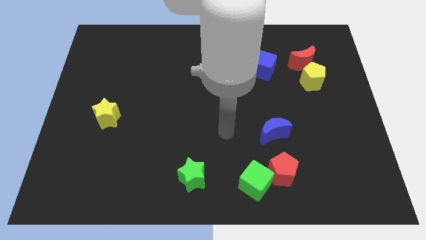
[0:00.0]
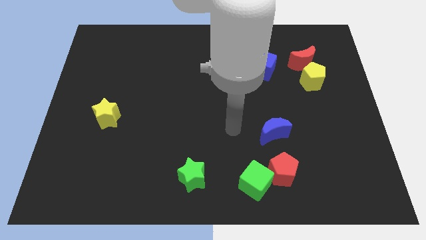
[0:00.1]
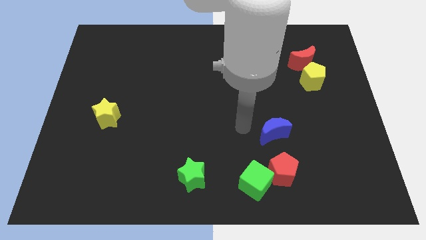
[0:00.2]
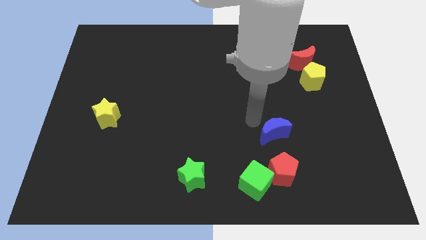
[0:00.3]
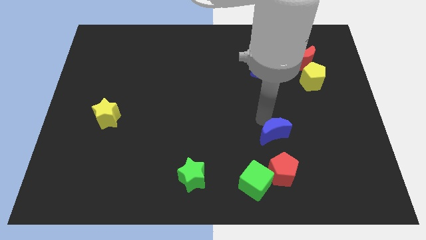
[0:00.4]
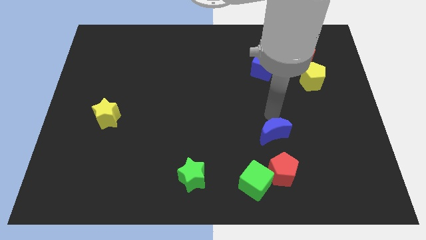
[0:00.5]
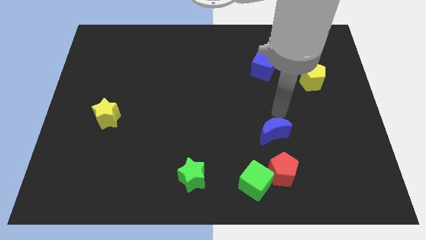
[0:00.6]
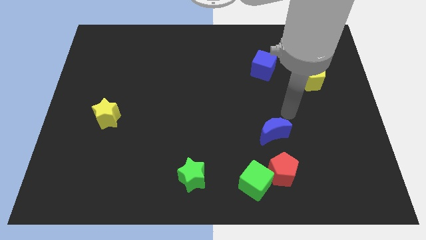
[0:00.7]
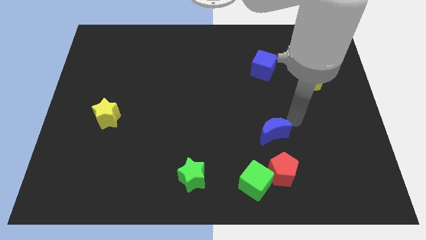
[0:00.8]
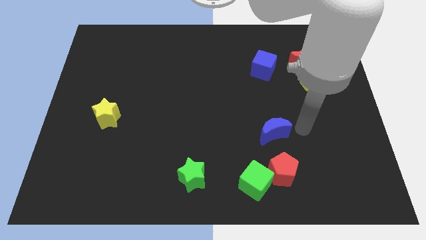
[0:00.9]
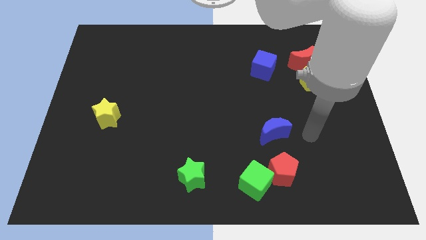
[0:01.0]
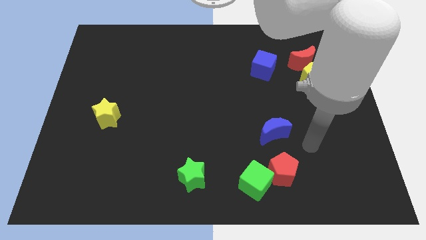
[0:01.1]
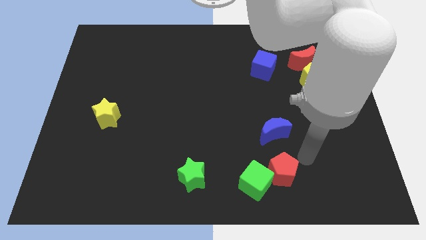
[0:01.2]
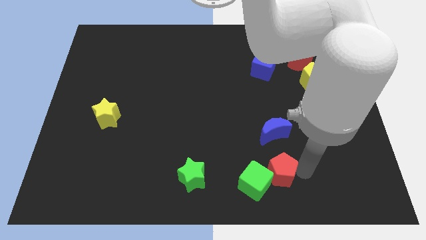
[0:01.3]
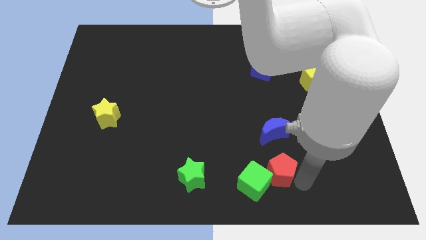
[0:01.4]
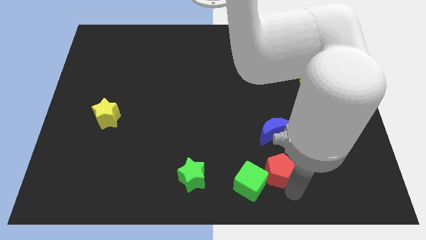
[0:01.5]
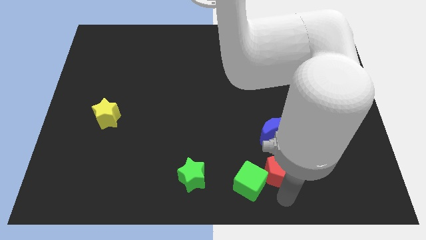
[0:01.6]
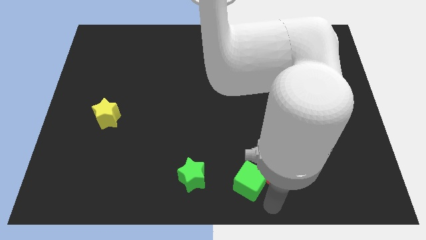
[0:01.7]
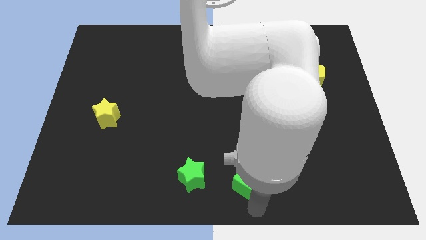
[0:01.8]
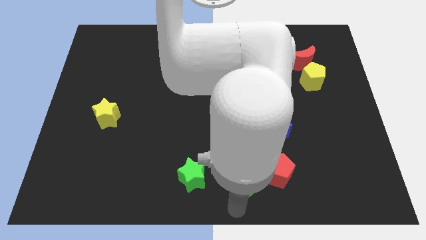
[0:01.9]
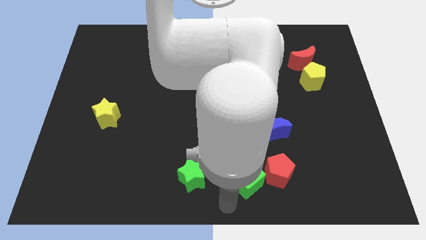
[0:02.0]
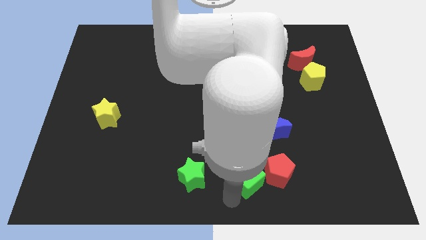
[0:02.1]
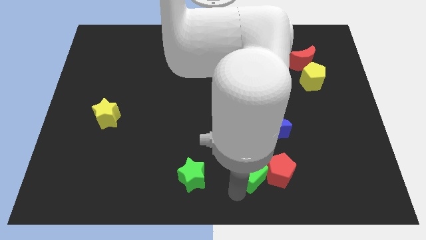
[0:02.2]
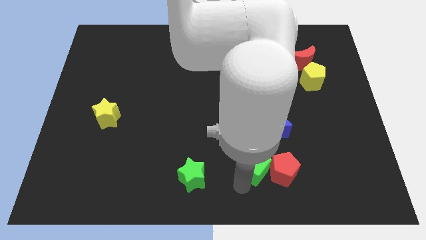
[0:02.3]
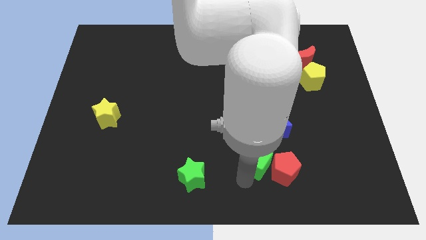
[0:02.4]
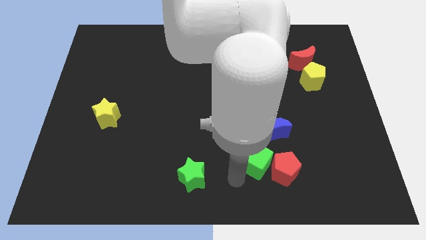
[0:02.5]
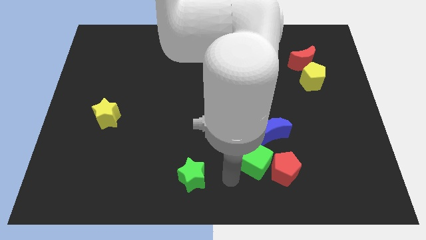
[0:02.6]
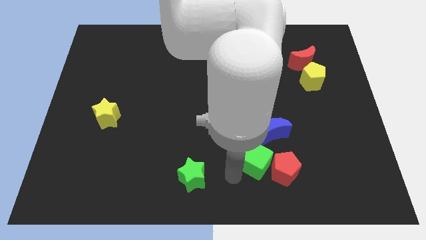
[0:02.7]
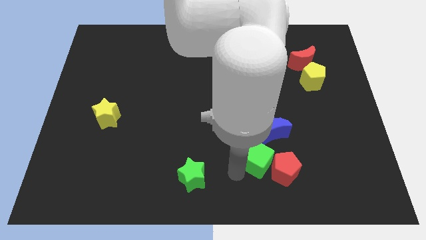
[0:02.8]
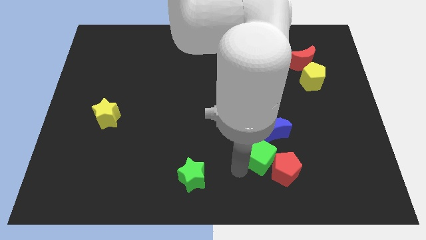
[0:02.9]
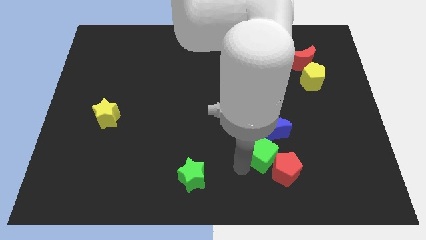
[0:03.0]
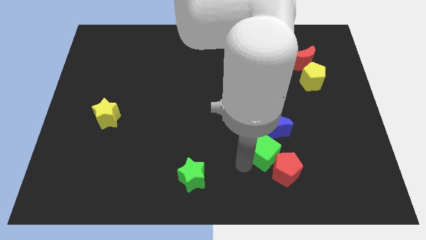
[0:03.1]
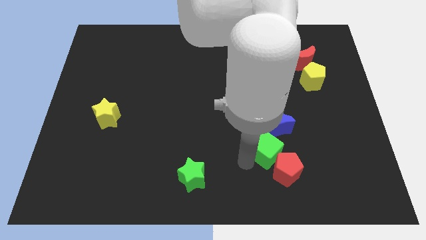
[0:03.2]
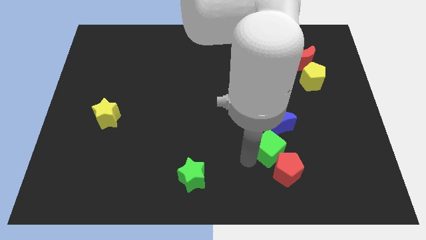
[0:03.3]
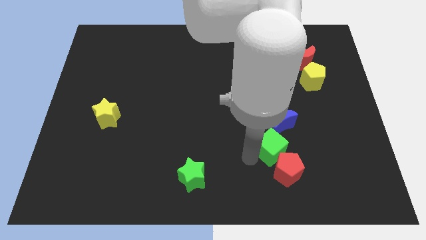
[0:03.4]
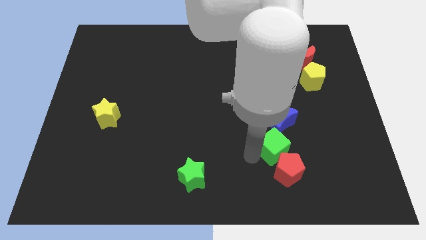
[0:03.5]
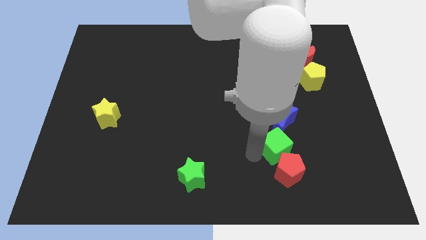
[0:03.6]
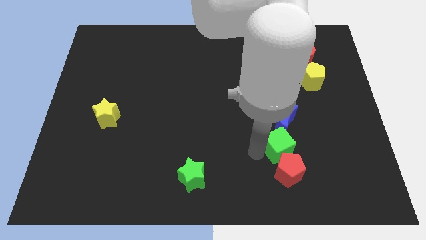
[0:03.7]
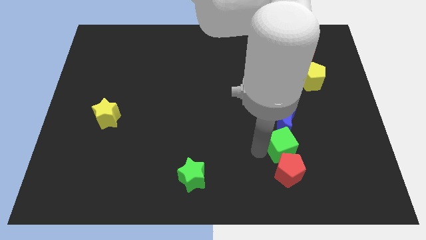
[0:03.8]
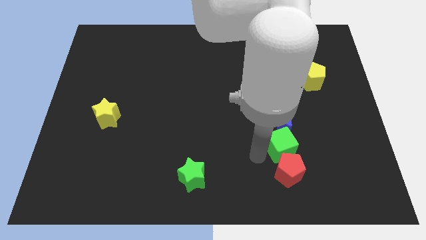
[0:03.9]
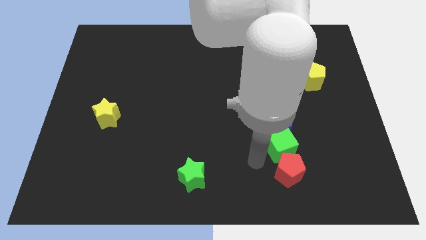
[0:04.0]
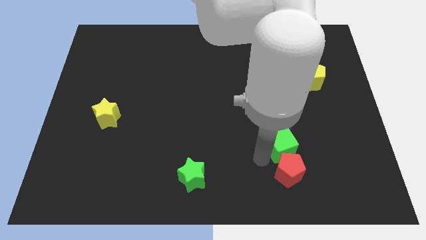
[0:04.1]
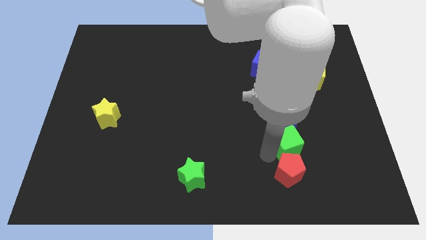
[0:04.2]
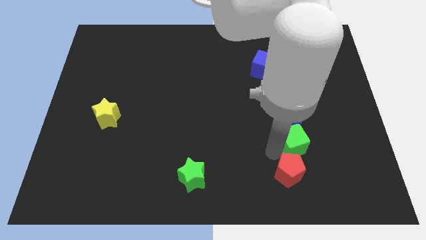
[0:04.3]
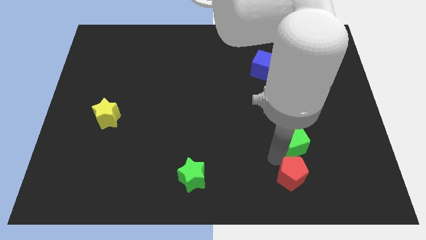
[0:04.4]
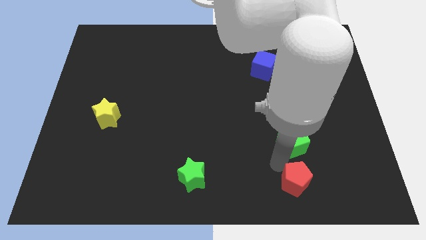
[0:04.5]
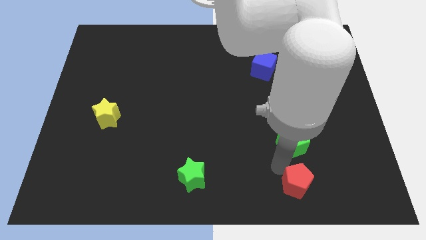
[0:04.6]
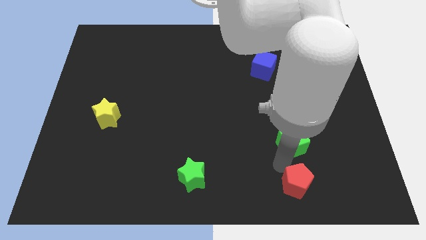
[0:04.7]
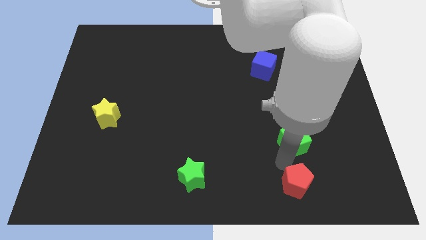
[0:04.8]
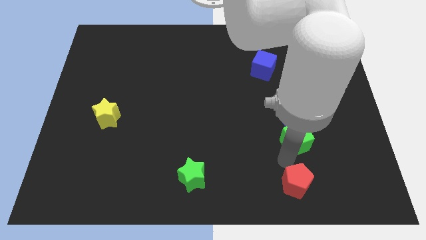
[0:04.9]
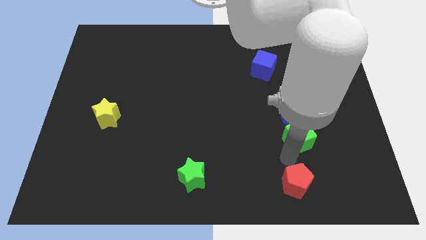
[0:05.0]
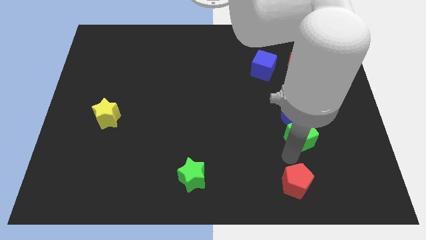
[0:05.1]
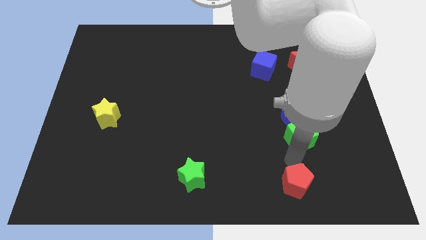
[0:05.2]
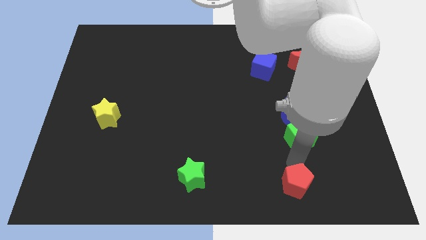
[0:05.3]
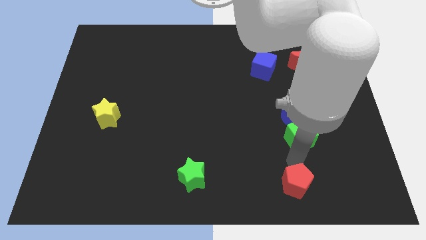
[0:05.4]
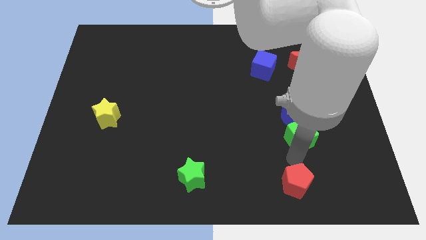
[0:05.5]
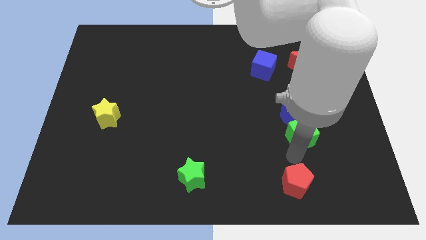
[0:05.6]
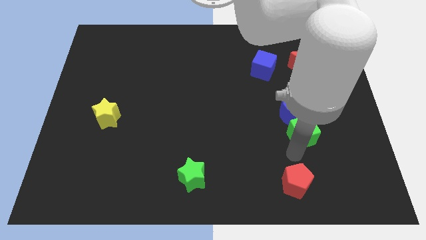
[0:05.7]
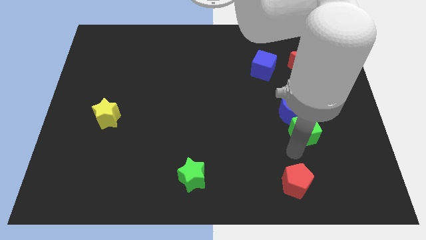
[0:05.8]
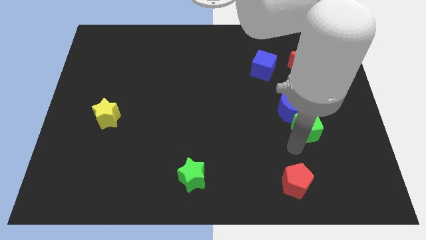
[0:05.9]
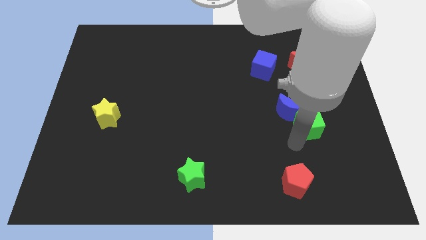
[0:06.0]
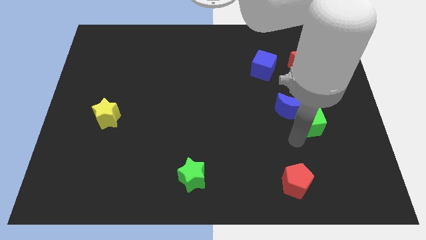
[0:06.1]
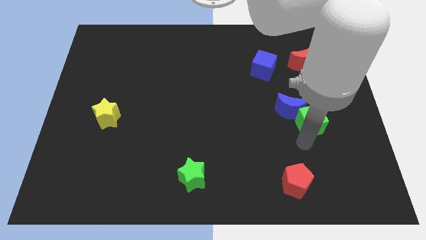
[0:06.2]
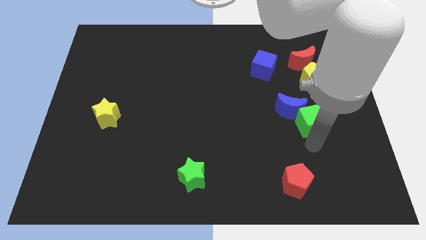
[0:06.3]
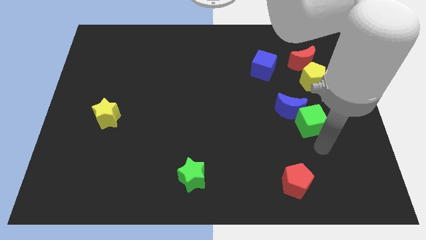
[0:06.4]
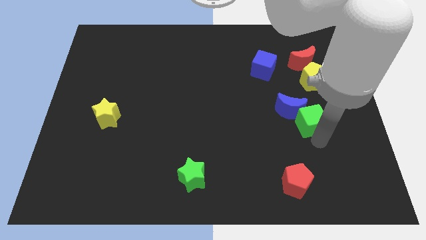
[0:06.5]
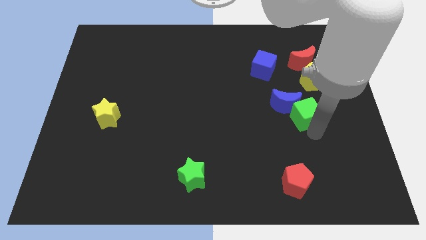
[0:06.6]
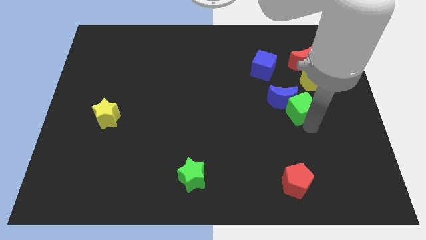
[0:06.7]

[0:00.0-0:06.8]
move the green cube diagonally down and to the left of the yellow pentagon
